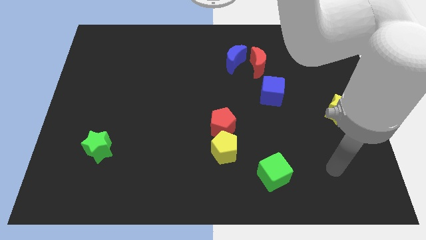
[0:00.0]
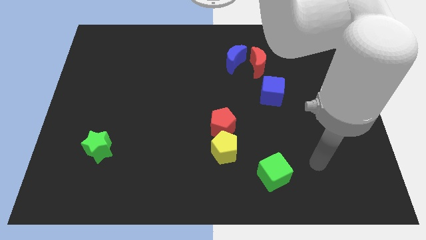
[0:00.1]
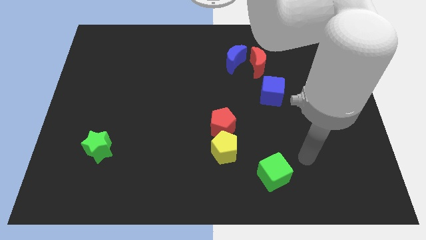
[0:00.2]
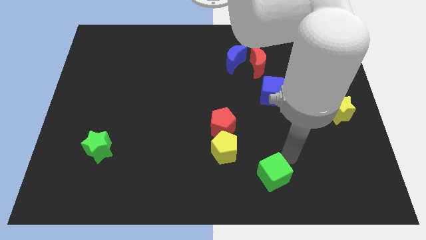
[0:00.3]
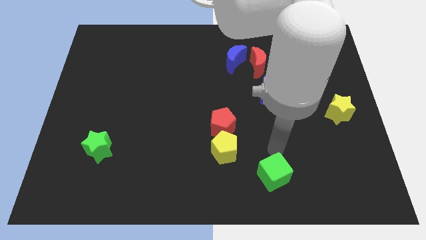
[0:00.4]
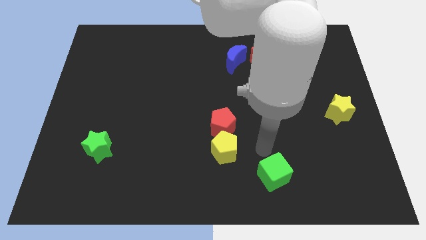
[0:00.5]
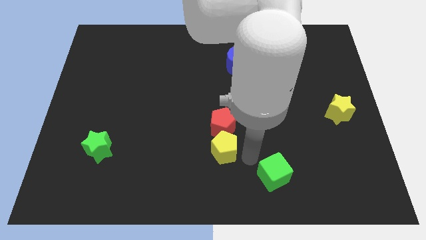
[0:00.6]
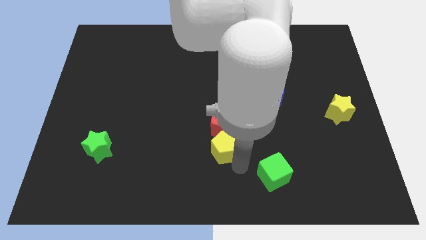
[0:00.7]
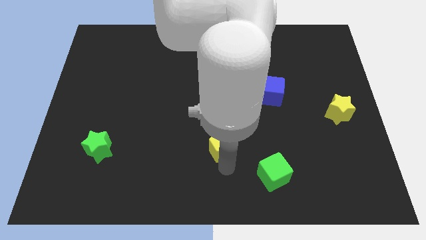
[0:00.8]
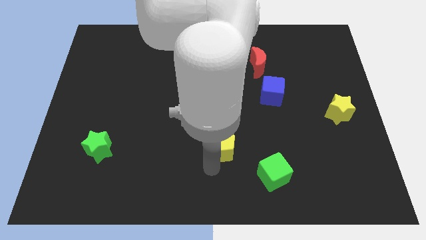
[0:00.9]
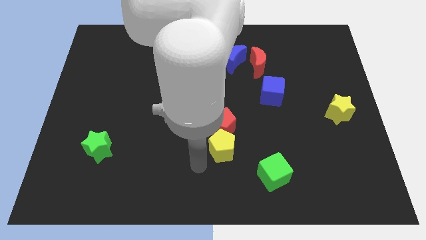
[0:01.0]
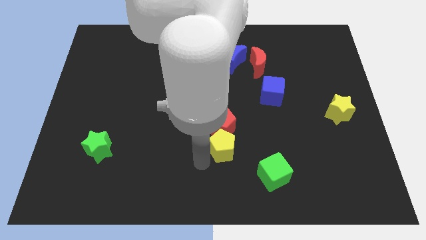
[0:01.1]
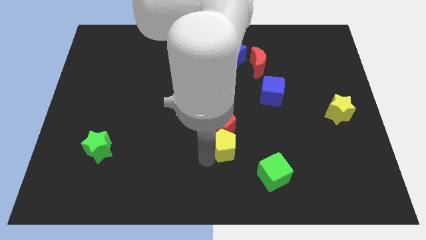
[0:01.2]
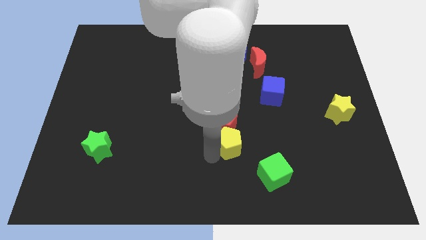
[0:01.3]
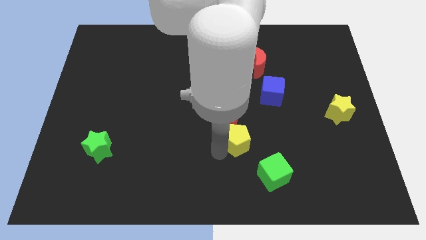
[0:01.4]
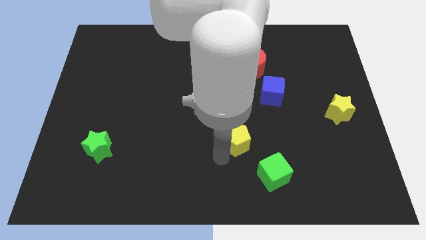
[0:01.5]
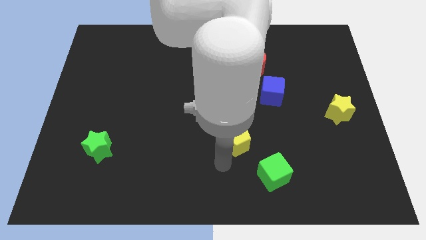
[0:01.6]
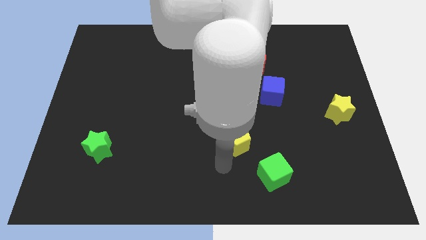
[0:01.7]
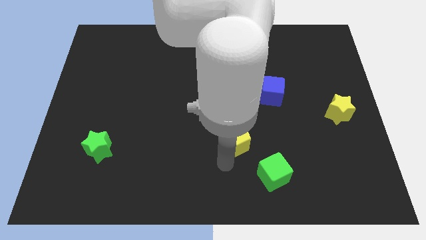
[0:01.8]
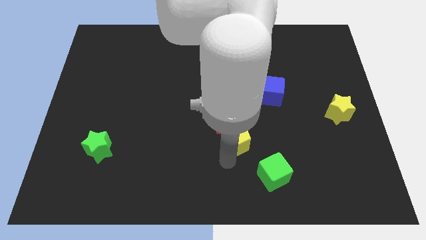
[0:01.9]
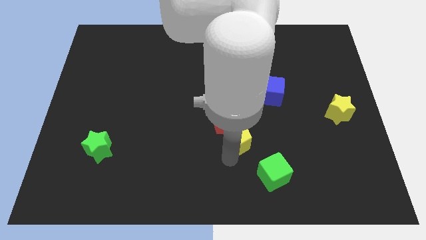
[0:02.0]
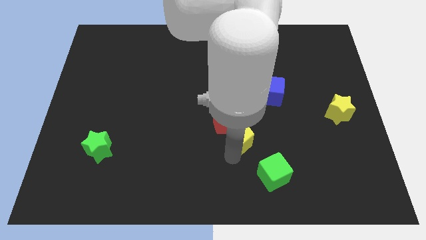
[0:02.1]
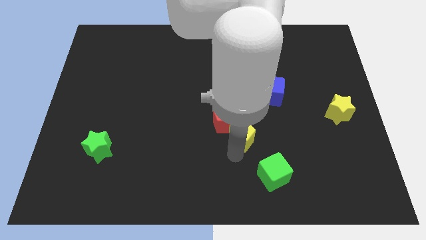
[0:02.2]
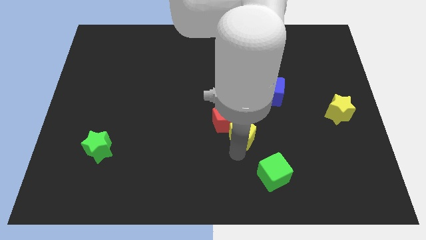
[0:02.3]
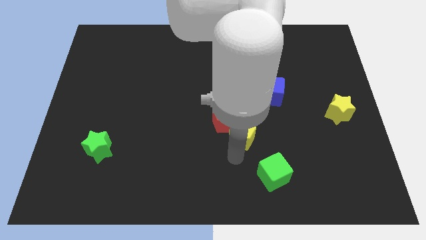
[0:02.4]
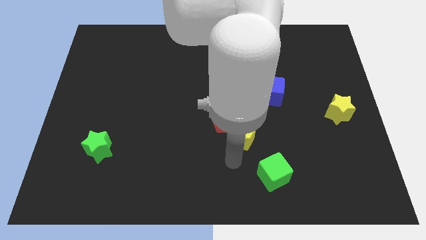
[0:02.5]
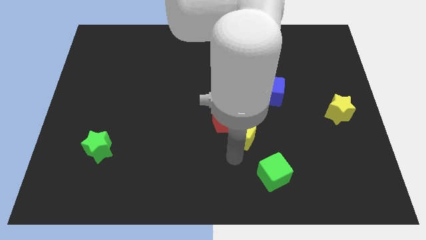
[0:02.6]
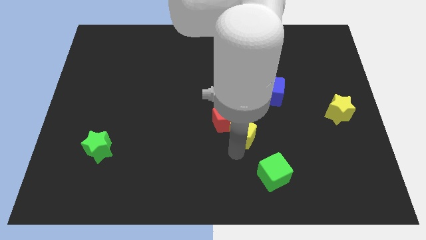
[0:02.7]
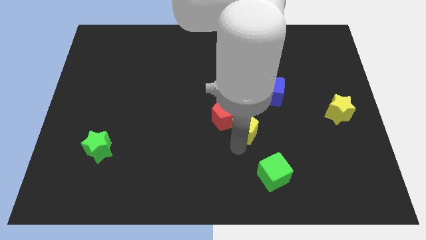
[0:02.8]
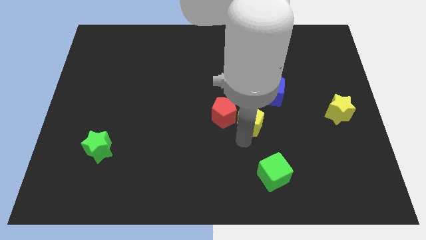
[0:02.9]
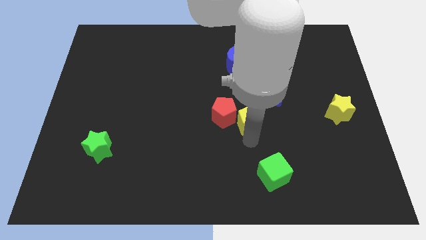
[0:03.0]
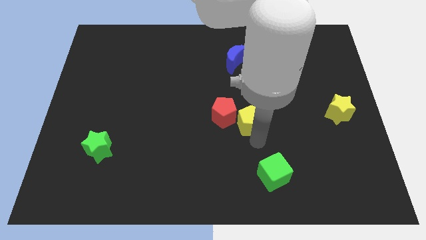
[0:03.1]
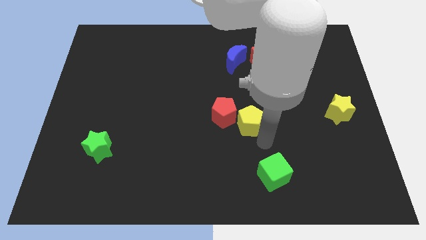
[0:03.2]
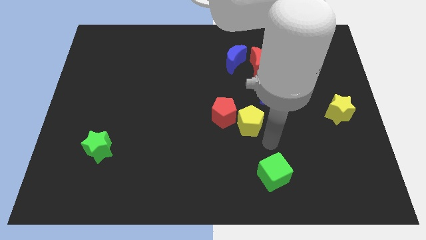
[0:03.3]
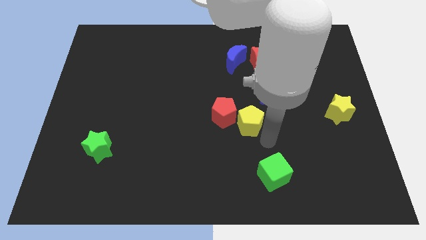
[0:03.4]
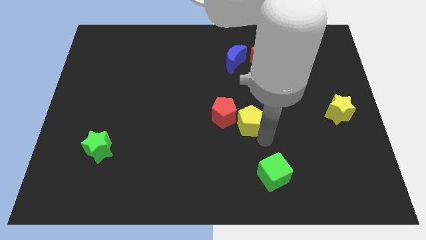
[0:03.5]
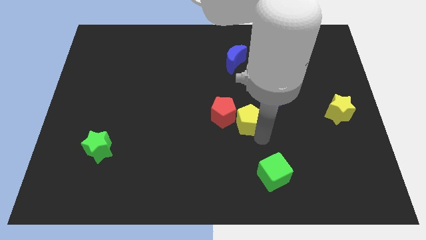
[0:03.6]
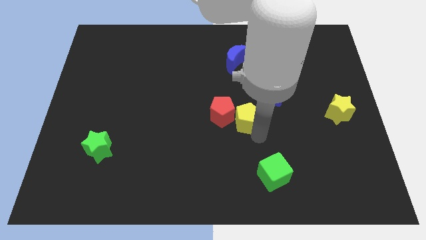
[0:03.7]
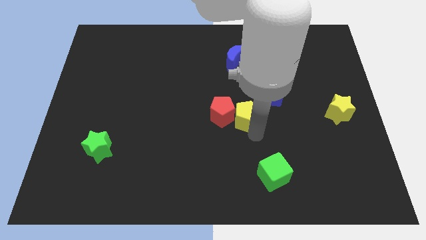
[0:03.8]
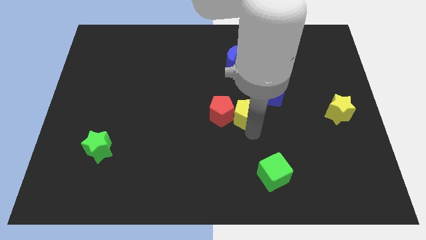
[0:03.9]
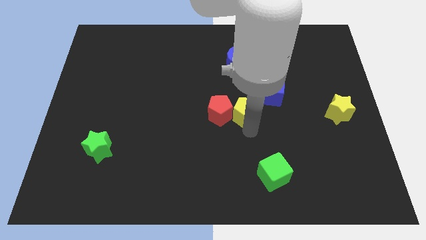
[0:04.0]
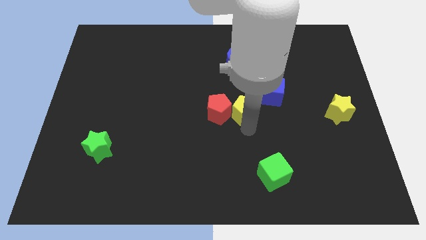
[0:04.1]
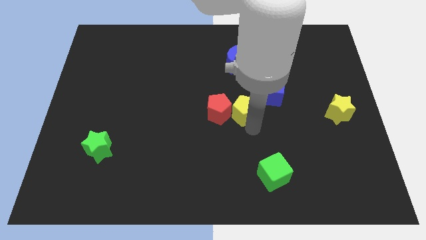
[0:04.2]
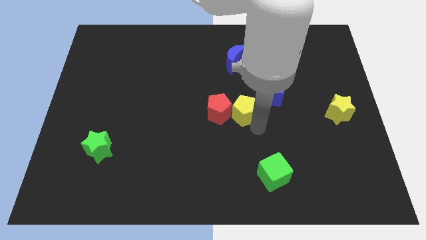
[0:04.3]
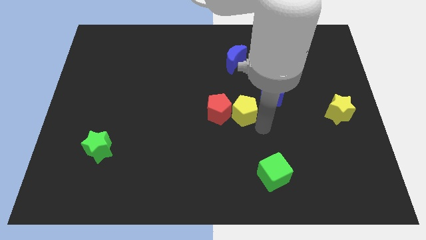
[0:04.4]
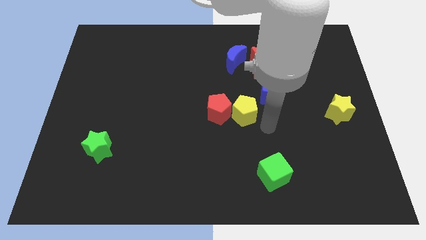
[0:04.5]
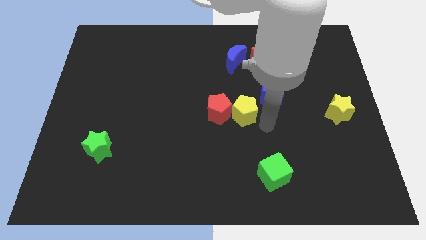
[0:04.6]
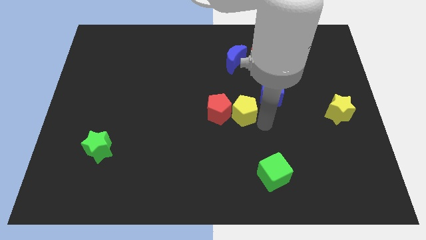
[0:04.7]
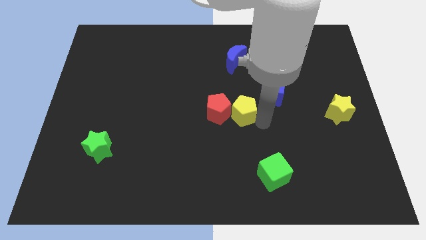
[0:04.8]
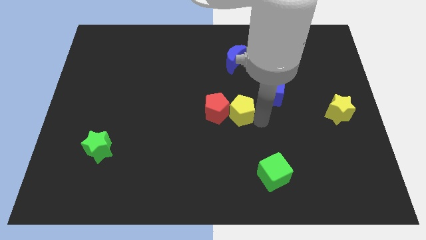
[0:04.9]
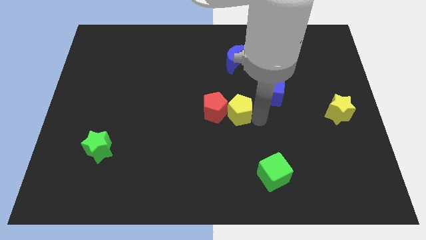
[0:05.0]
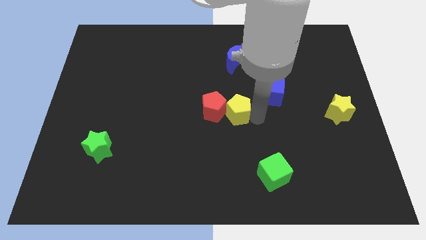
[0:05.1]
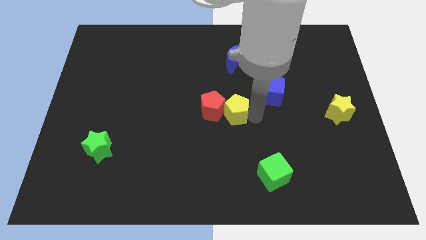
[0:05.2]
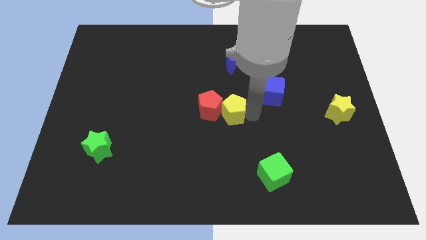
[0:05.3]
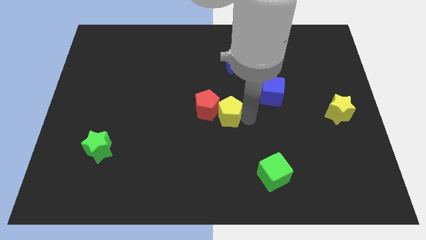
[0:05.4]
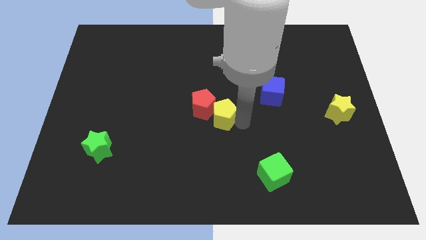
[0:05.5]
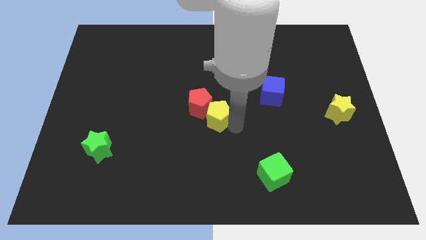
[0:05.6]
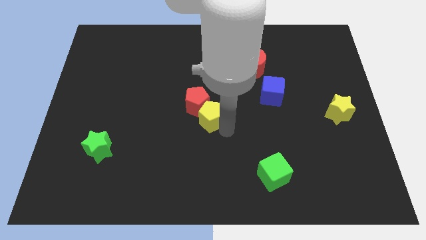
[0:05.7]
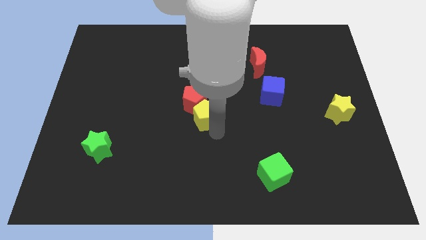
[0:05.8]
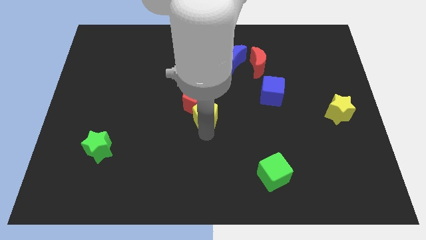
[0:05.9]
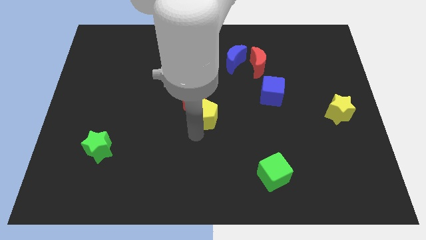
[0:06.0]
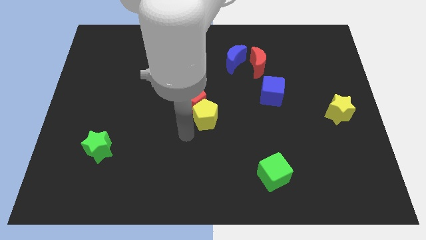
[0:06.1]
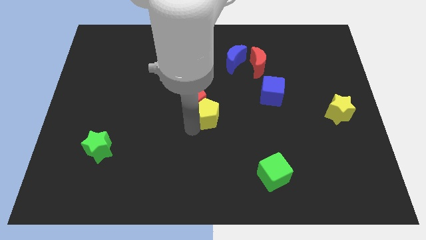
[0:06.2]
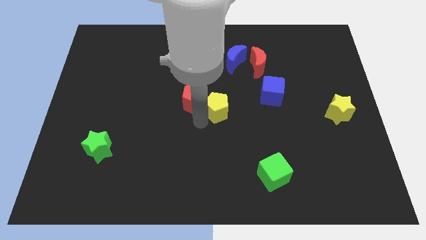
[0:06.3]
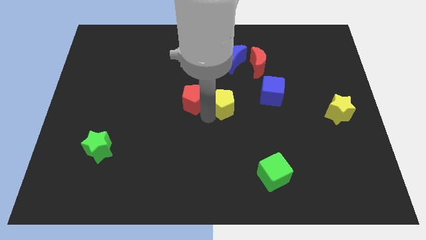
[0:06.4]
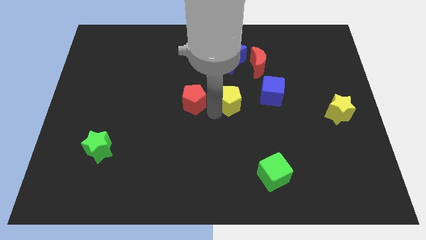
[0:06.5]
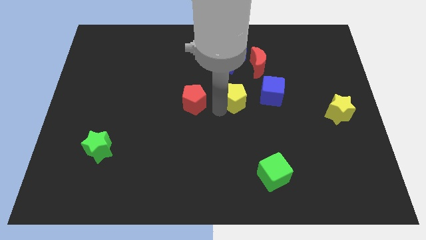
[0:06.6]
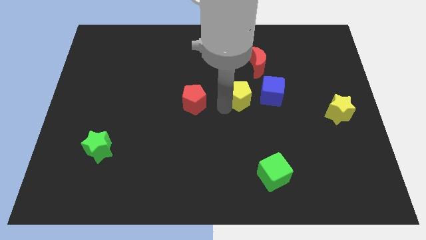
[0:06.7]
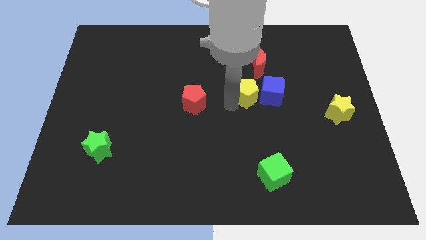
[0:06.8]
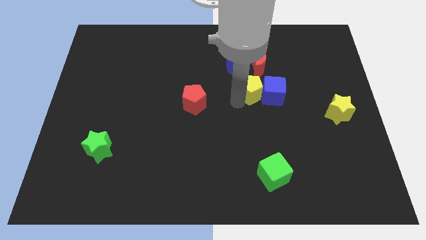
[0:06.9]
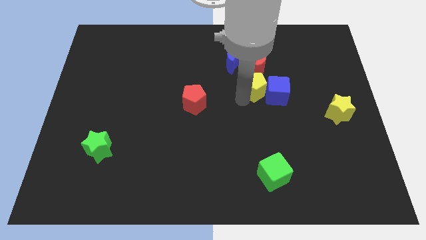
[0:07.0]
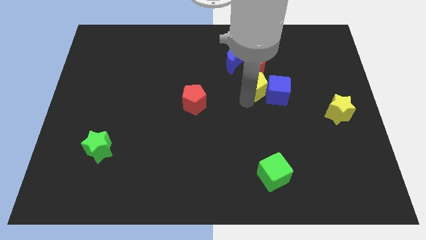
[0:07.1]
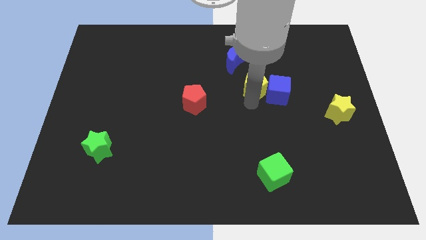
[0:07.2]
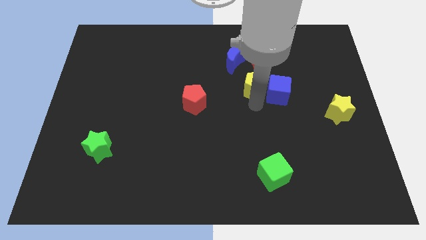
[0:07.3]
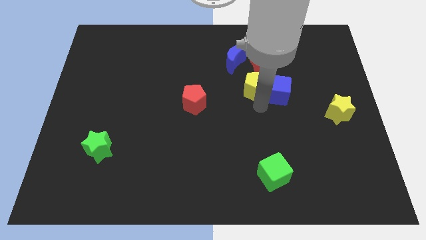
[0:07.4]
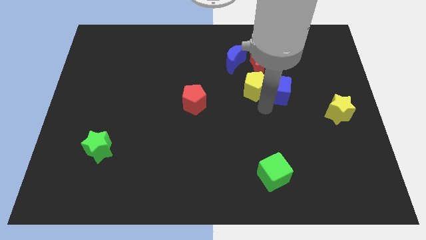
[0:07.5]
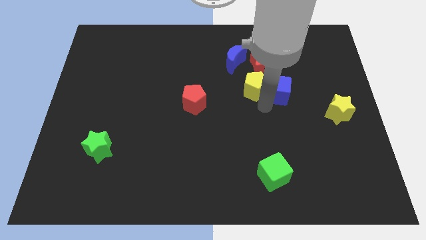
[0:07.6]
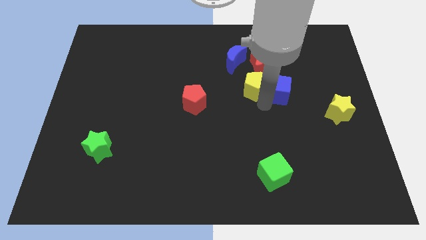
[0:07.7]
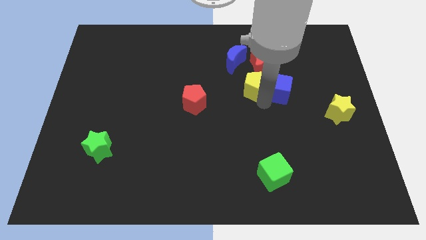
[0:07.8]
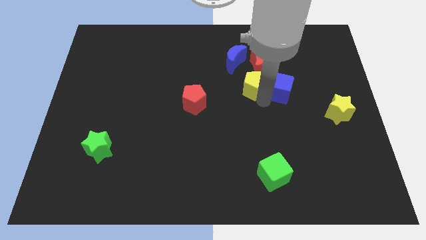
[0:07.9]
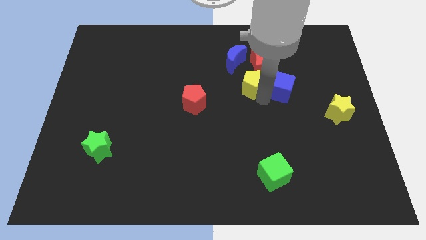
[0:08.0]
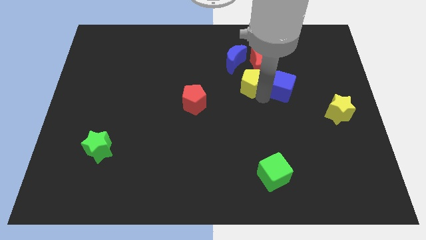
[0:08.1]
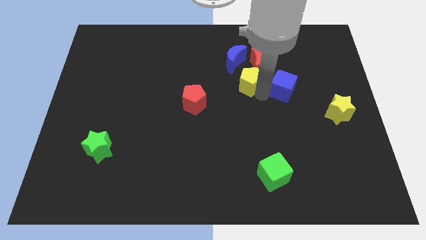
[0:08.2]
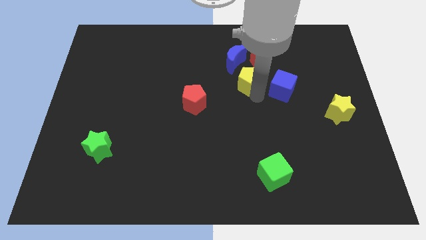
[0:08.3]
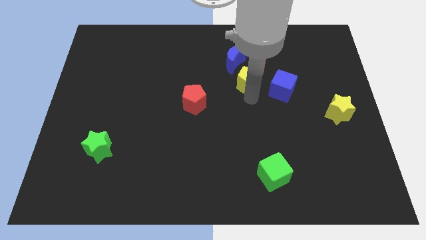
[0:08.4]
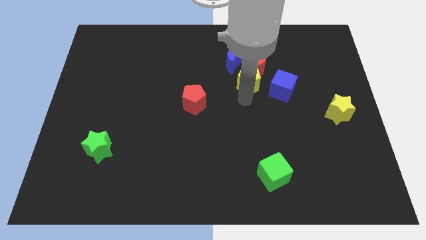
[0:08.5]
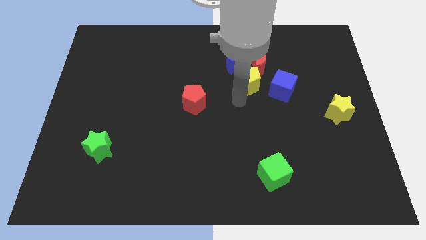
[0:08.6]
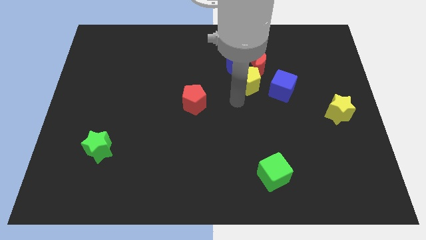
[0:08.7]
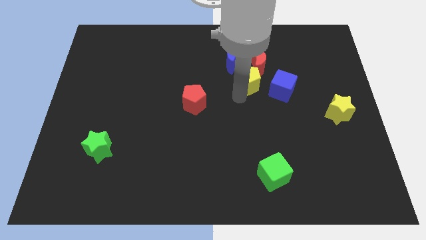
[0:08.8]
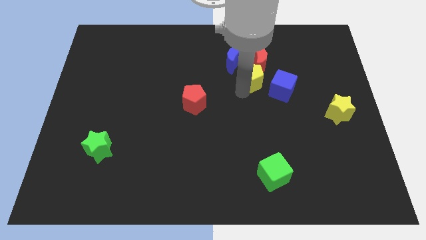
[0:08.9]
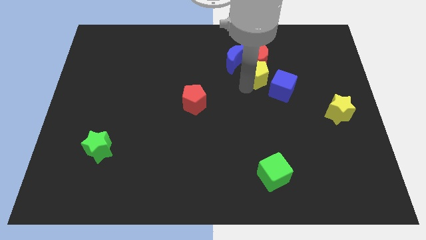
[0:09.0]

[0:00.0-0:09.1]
move the yellow pentagon towards the red moon
